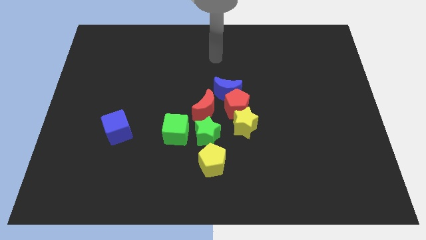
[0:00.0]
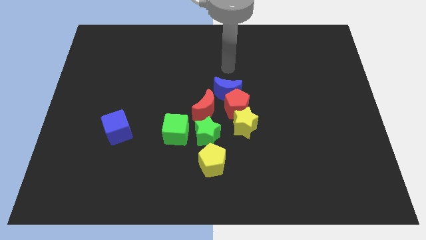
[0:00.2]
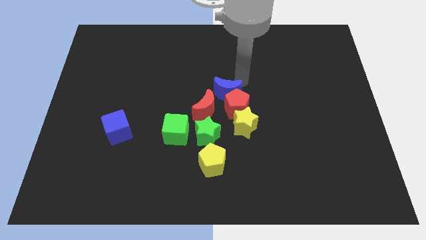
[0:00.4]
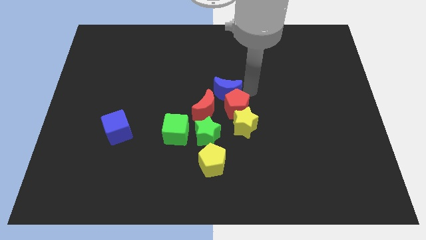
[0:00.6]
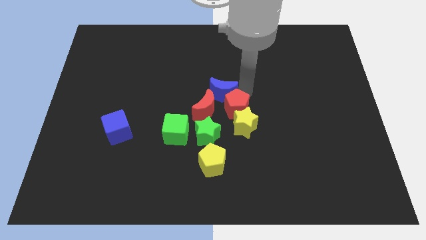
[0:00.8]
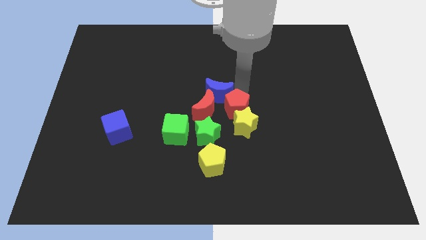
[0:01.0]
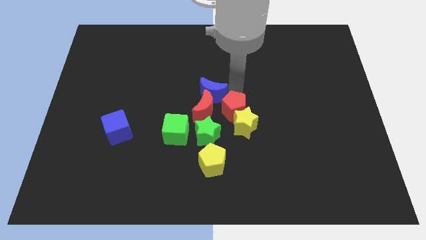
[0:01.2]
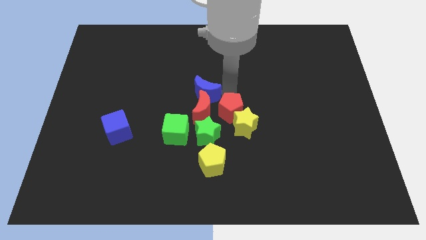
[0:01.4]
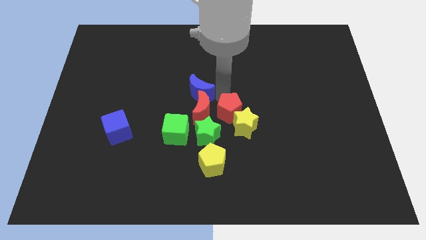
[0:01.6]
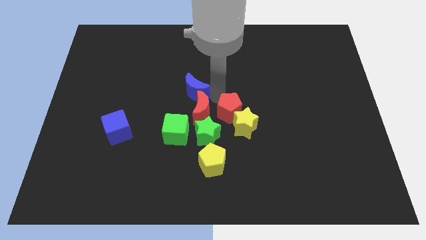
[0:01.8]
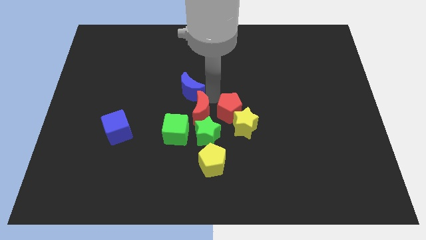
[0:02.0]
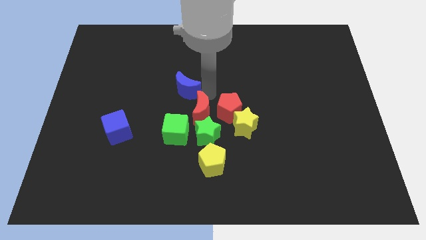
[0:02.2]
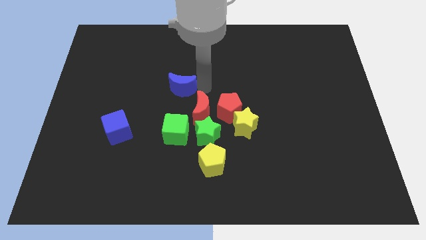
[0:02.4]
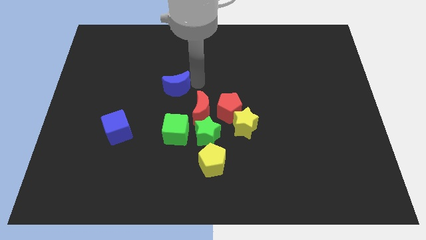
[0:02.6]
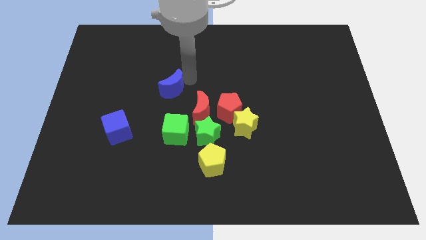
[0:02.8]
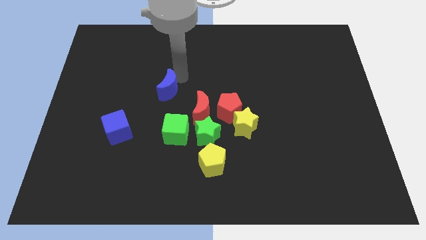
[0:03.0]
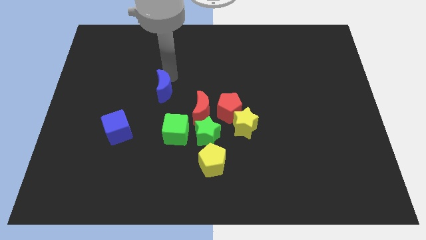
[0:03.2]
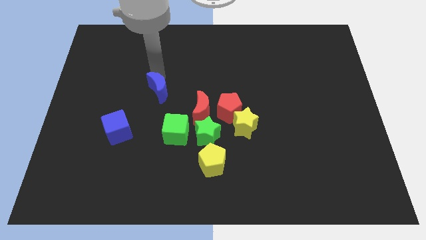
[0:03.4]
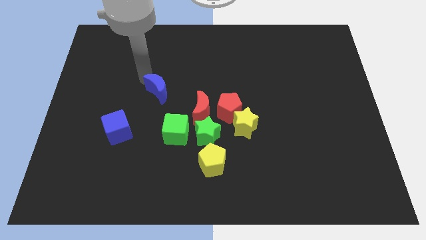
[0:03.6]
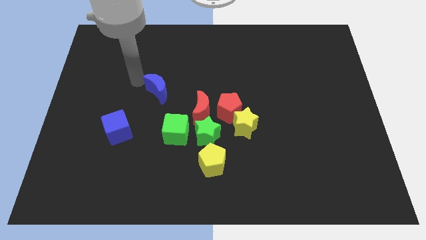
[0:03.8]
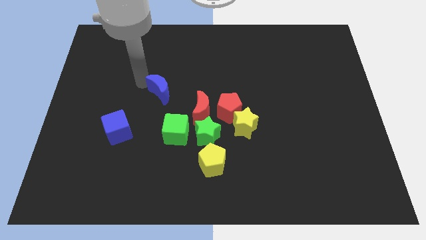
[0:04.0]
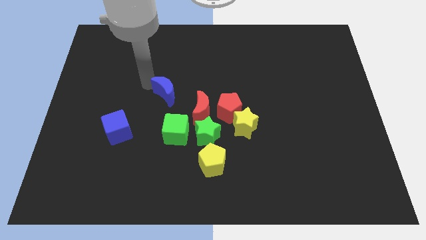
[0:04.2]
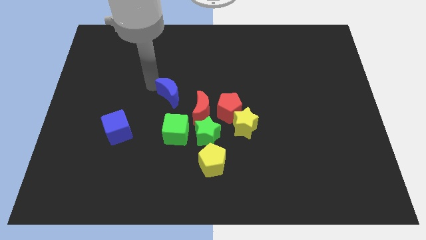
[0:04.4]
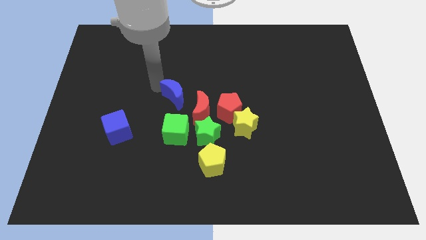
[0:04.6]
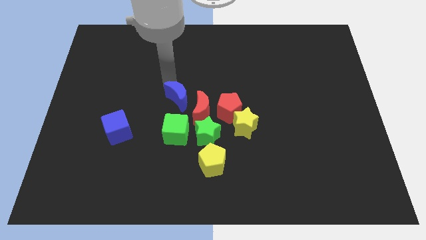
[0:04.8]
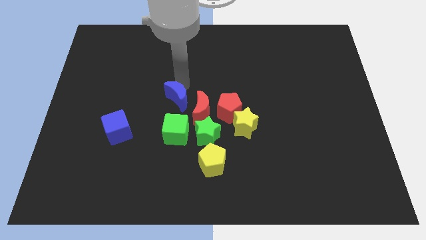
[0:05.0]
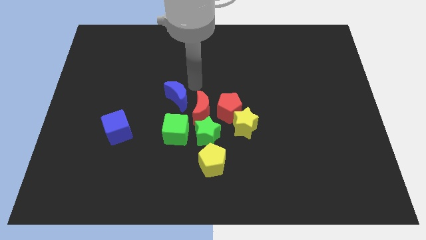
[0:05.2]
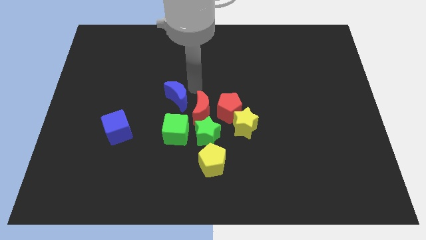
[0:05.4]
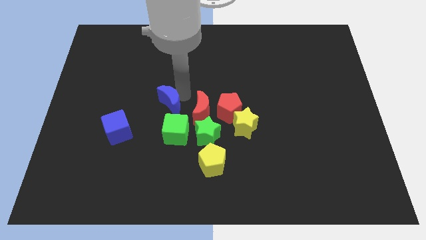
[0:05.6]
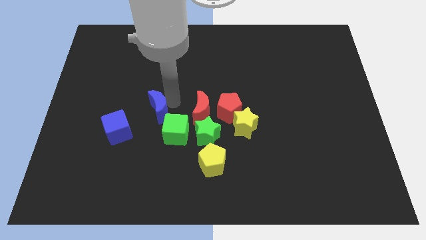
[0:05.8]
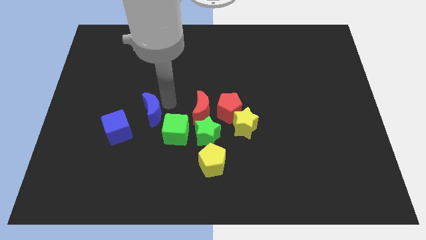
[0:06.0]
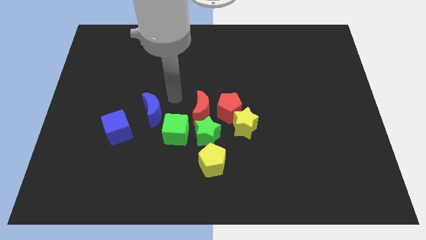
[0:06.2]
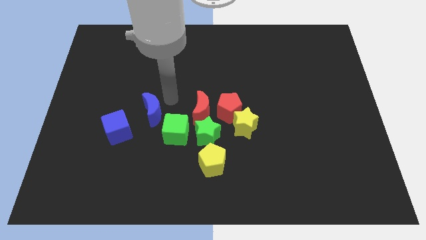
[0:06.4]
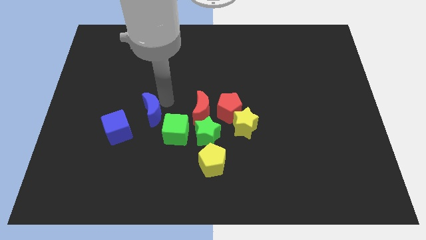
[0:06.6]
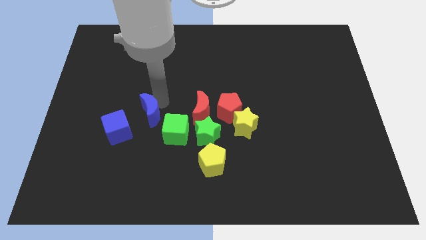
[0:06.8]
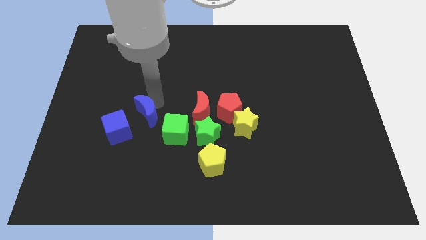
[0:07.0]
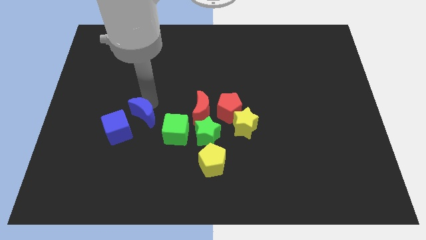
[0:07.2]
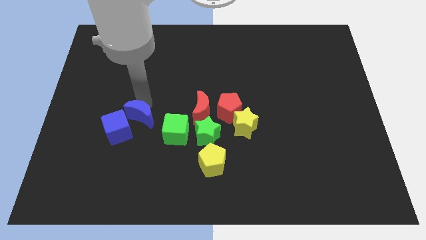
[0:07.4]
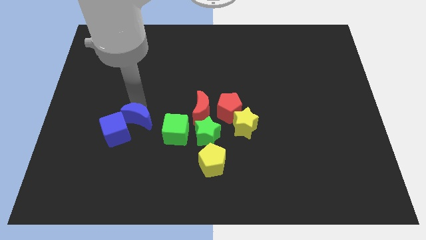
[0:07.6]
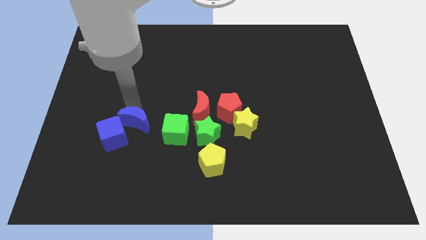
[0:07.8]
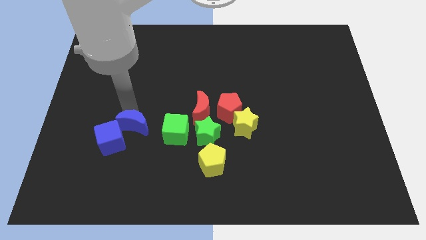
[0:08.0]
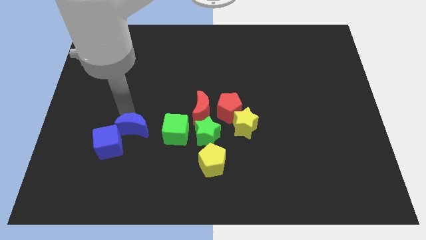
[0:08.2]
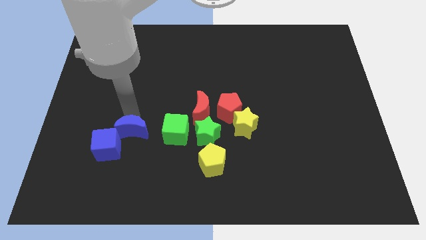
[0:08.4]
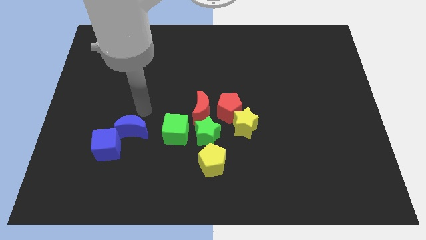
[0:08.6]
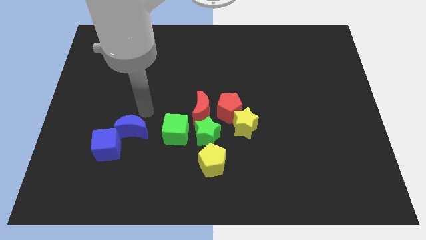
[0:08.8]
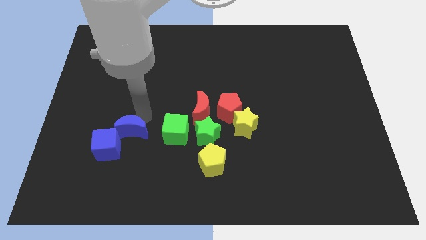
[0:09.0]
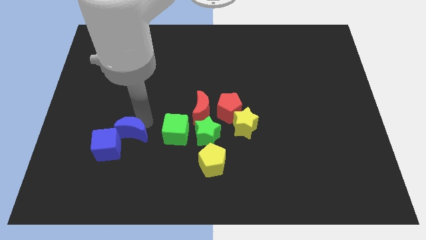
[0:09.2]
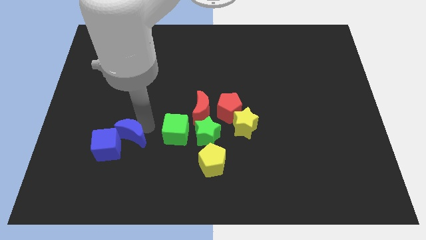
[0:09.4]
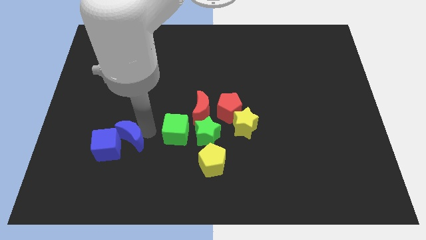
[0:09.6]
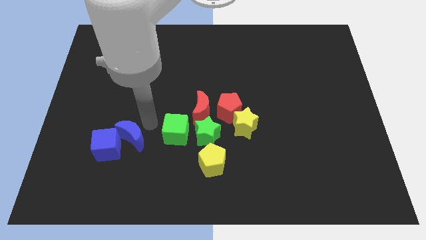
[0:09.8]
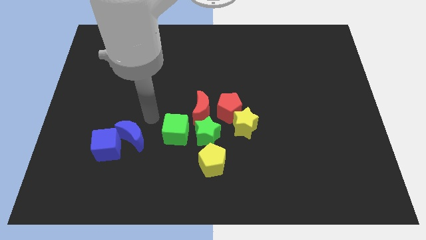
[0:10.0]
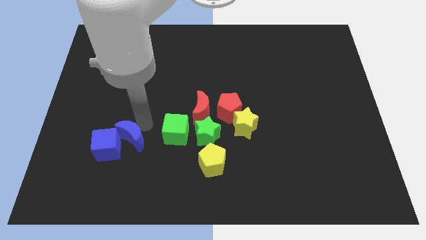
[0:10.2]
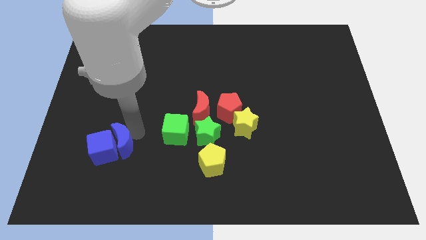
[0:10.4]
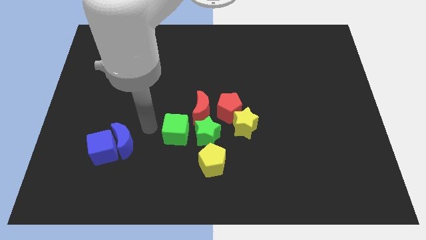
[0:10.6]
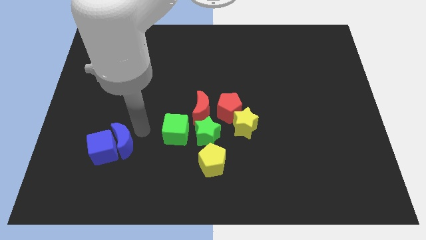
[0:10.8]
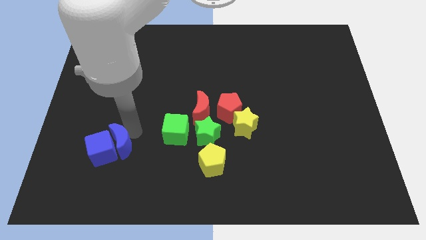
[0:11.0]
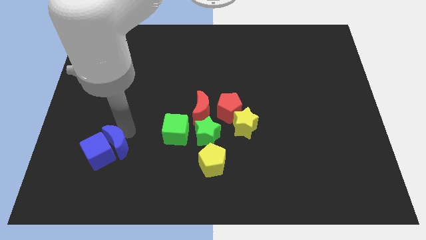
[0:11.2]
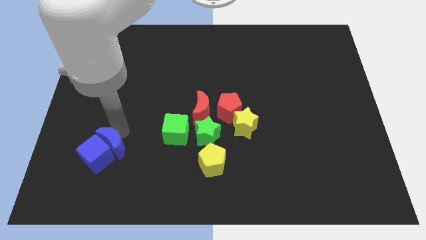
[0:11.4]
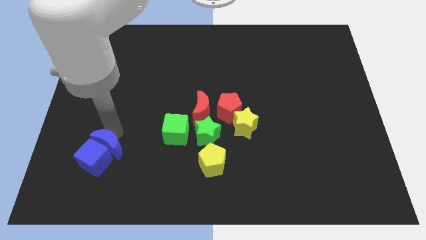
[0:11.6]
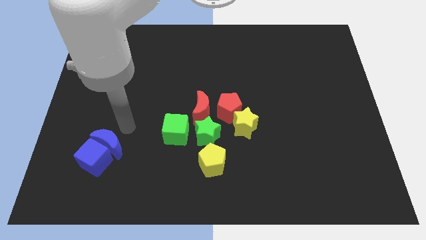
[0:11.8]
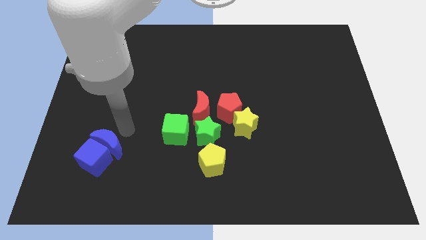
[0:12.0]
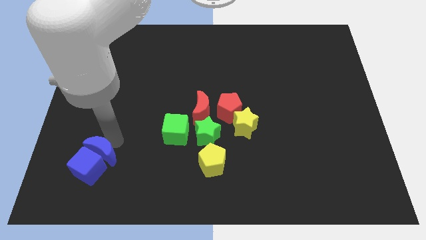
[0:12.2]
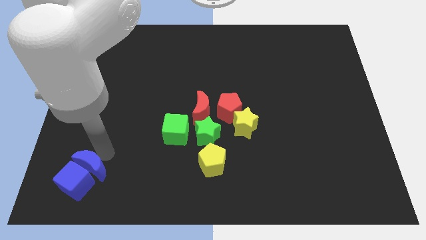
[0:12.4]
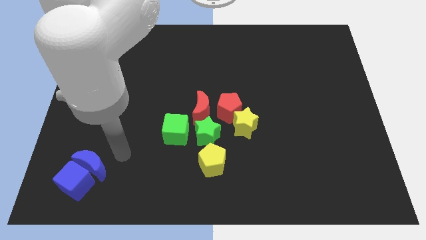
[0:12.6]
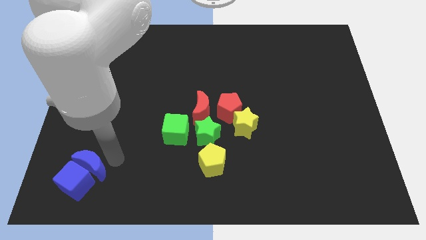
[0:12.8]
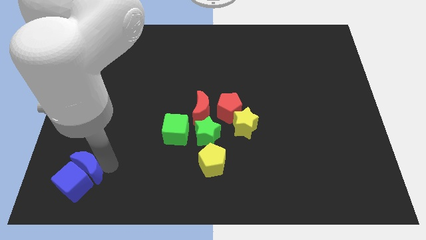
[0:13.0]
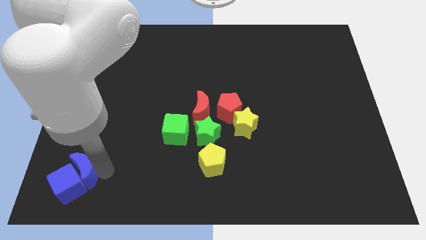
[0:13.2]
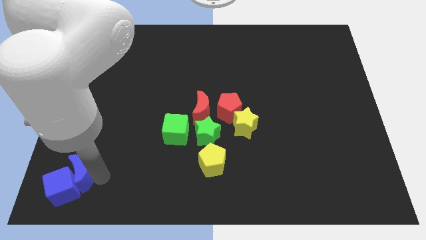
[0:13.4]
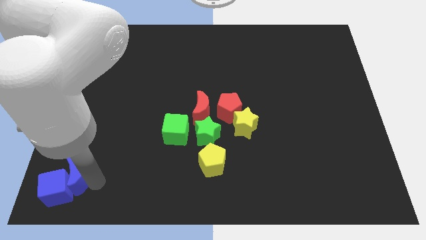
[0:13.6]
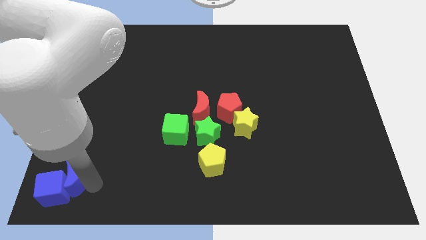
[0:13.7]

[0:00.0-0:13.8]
move the blue moon to the bottom left corner
